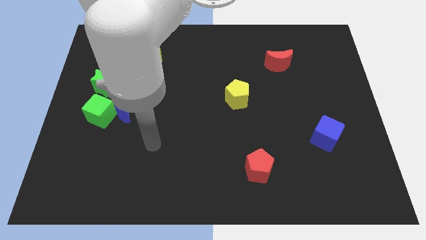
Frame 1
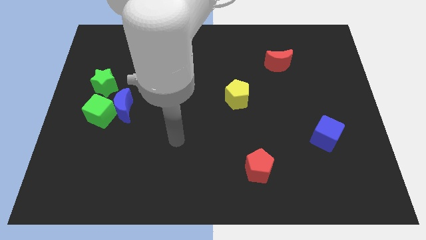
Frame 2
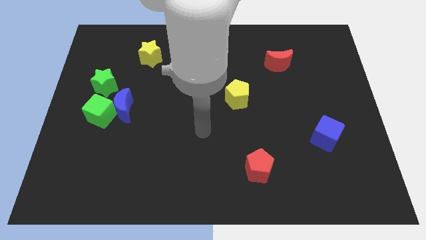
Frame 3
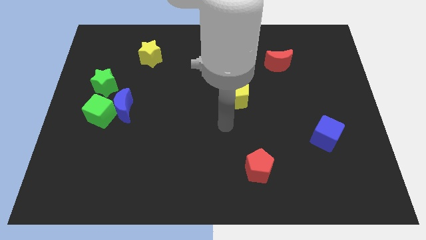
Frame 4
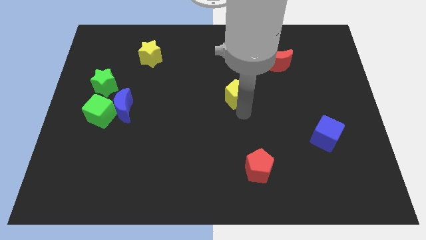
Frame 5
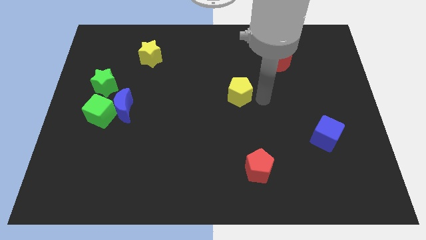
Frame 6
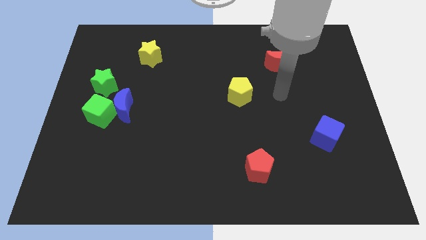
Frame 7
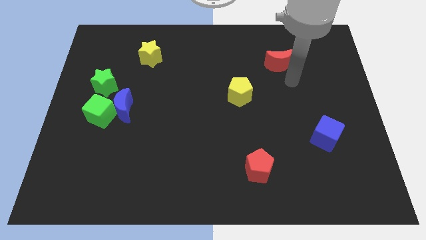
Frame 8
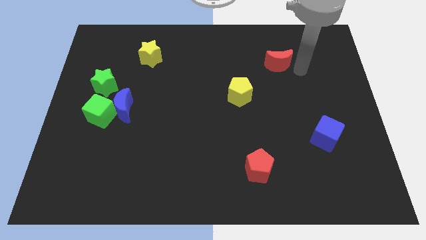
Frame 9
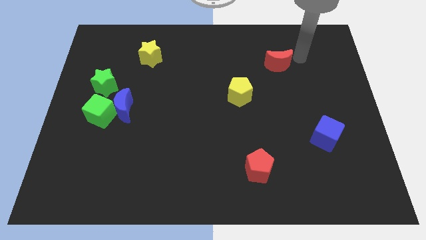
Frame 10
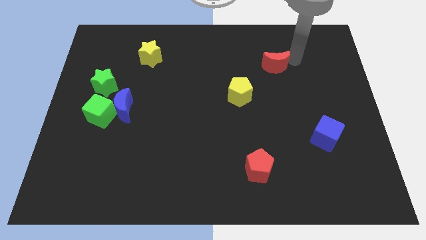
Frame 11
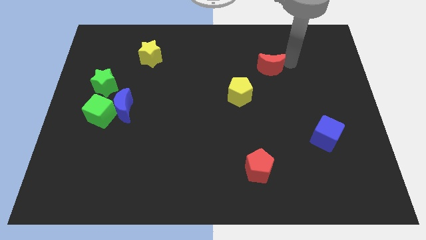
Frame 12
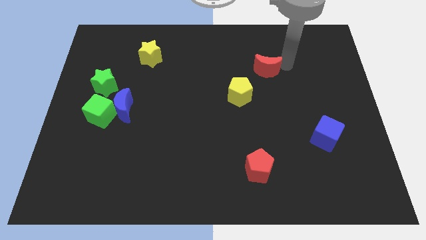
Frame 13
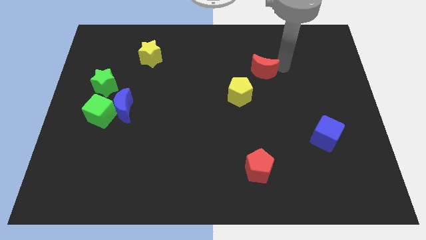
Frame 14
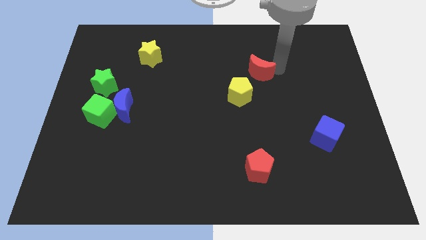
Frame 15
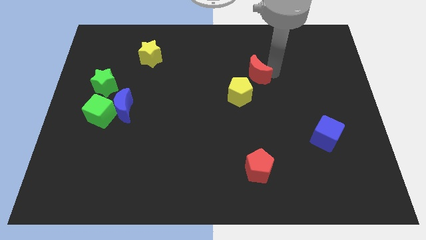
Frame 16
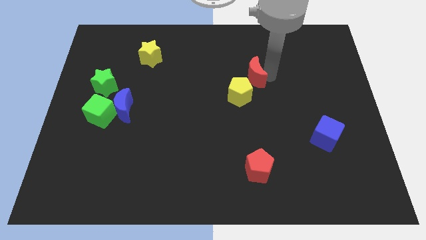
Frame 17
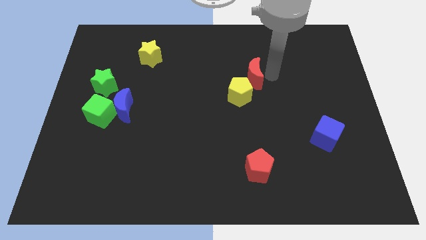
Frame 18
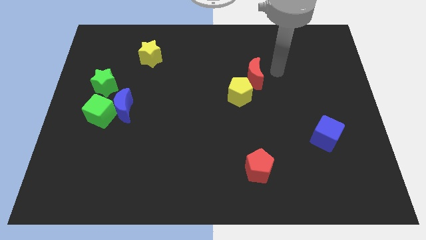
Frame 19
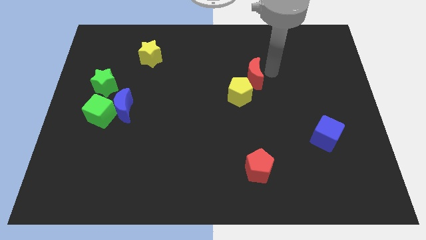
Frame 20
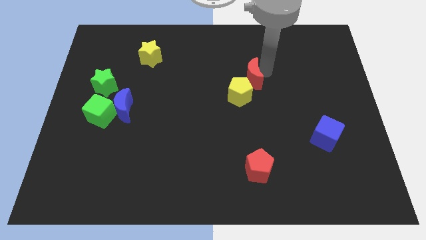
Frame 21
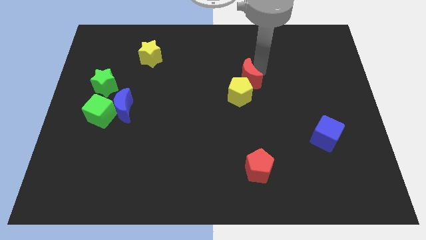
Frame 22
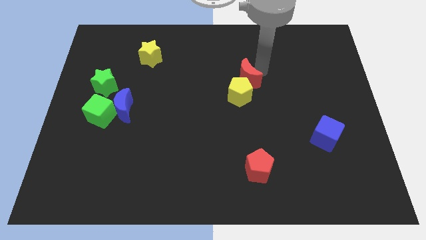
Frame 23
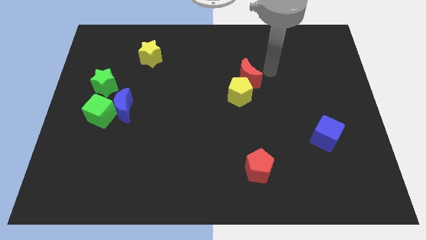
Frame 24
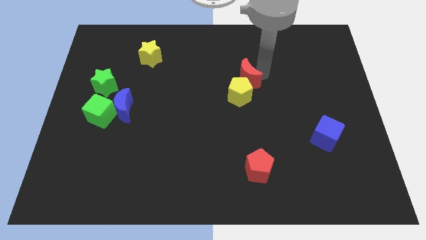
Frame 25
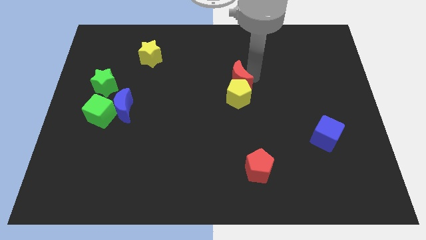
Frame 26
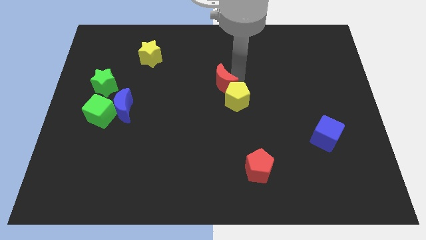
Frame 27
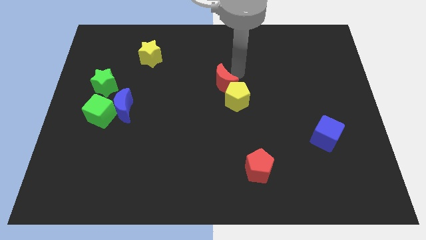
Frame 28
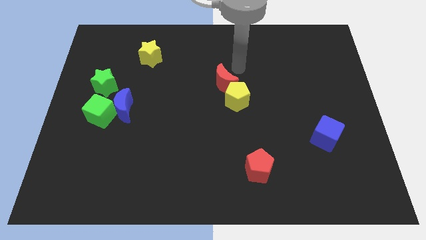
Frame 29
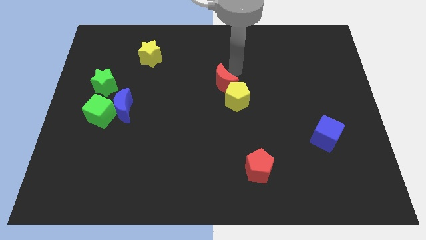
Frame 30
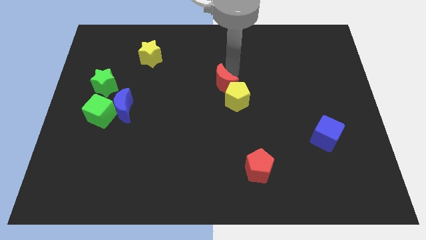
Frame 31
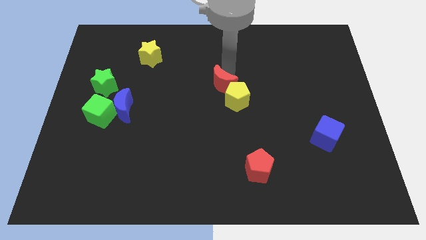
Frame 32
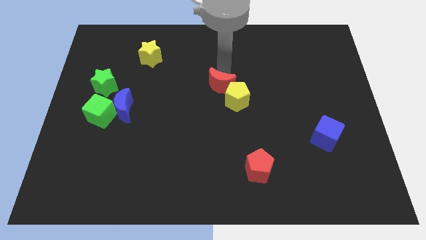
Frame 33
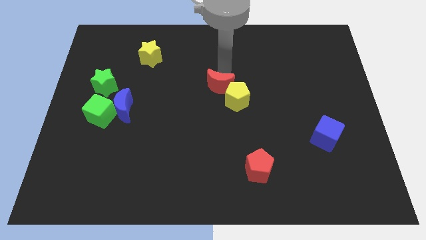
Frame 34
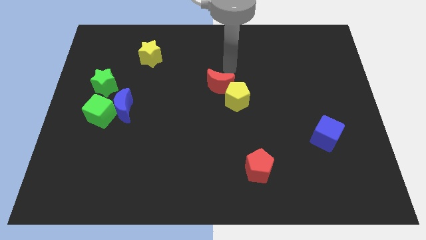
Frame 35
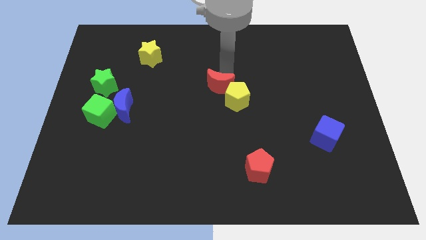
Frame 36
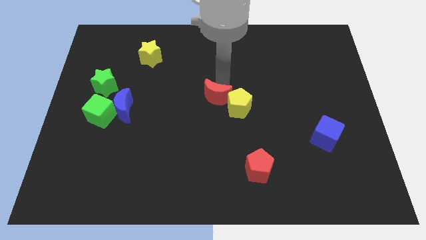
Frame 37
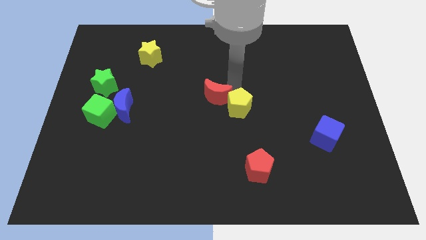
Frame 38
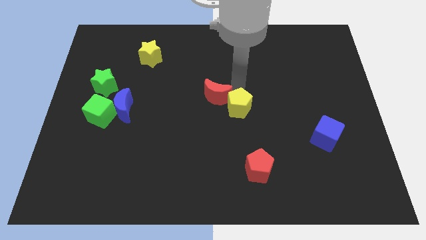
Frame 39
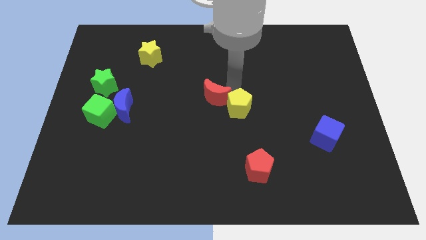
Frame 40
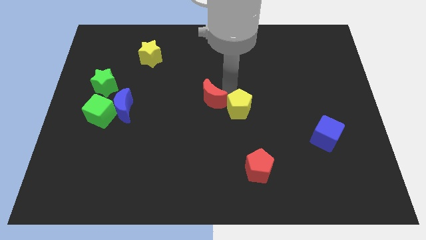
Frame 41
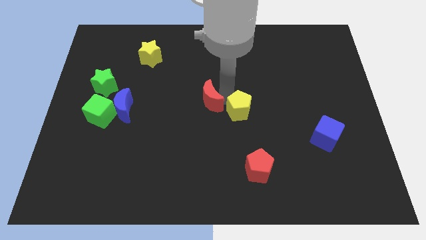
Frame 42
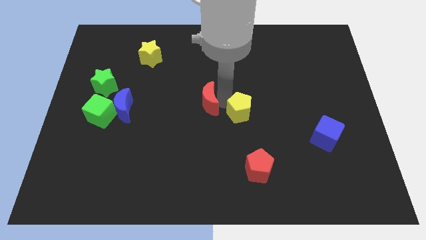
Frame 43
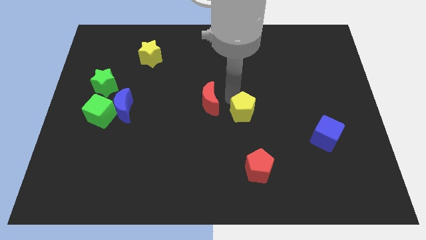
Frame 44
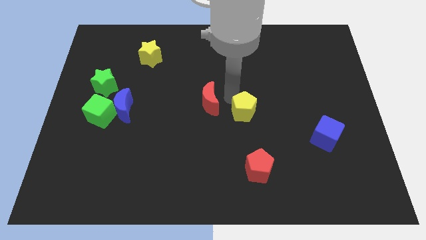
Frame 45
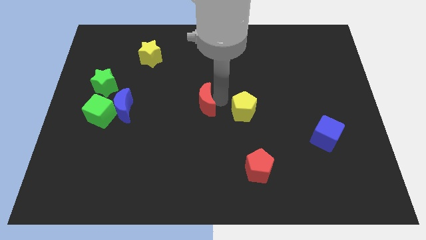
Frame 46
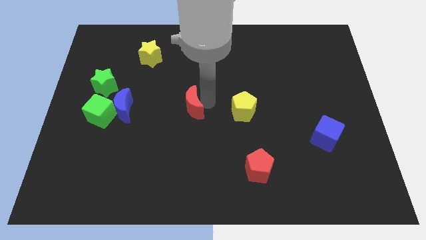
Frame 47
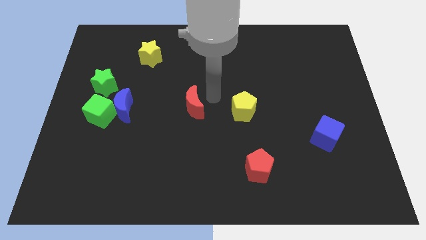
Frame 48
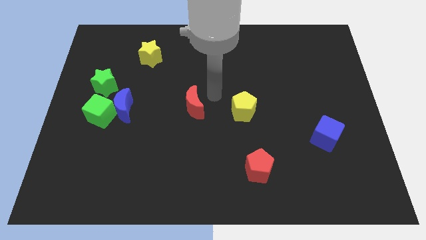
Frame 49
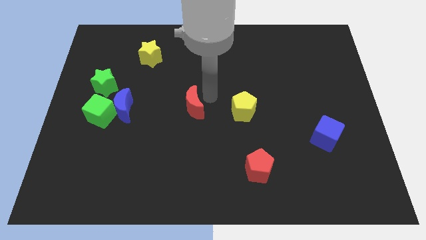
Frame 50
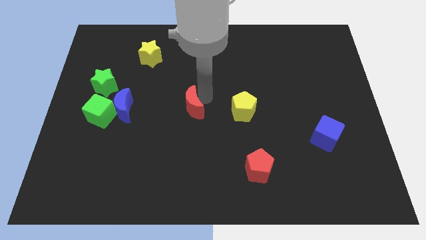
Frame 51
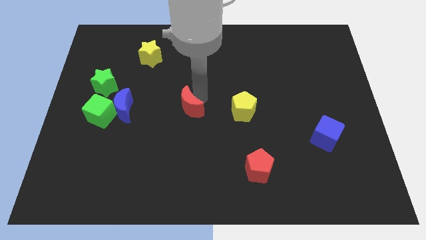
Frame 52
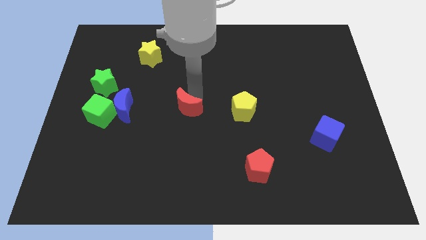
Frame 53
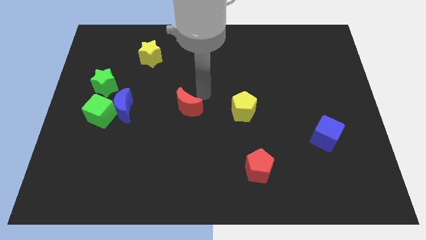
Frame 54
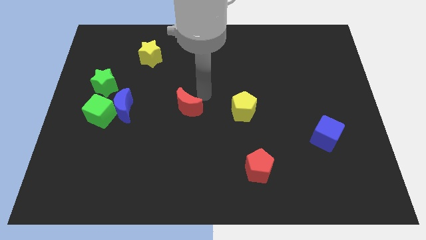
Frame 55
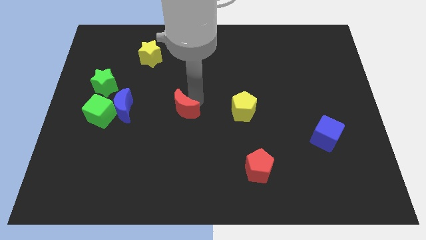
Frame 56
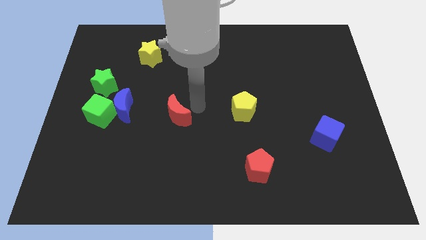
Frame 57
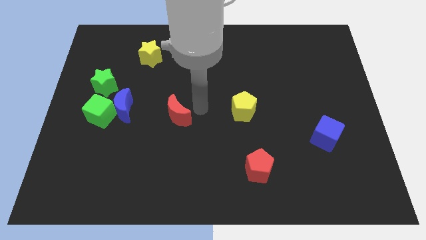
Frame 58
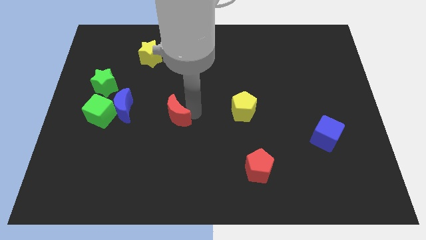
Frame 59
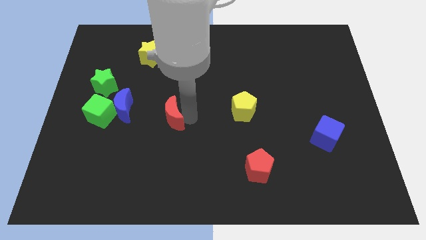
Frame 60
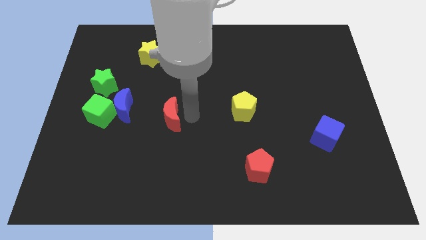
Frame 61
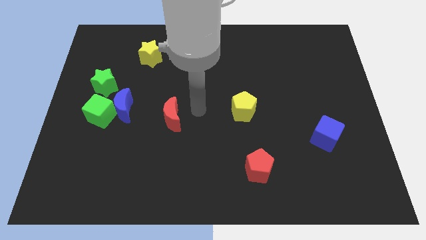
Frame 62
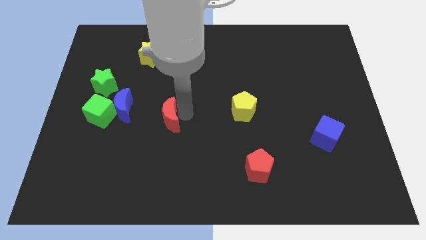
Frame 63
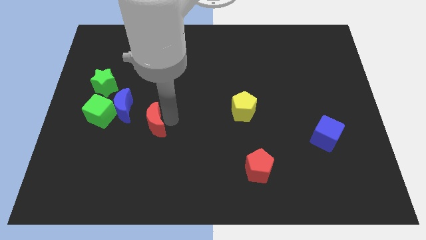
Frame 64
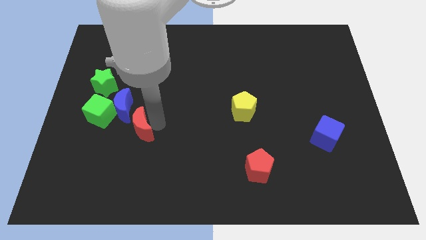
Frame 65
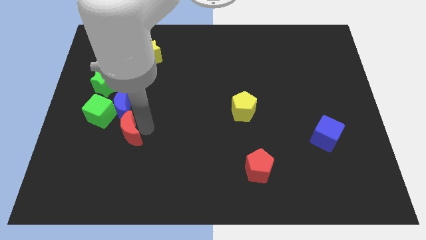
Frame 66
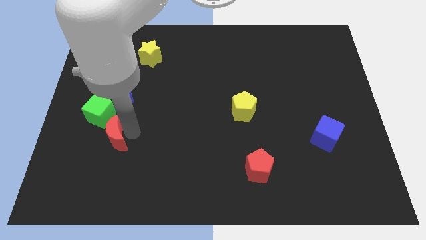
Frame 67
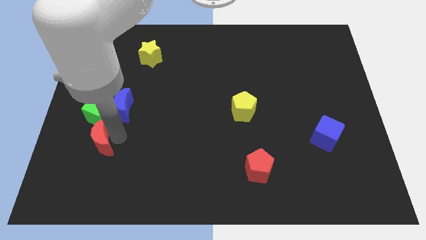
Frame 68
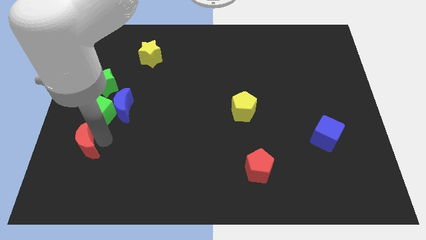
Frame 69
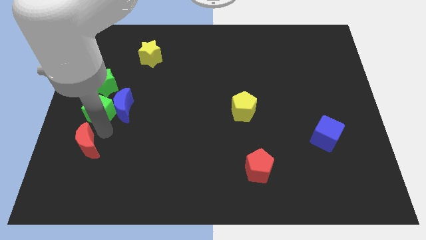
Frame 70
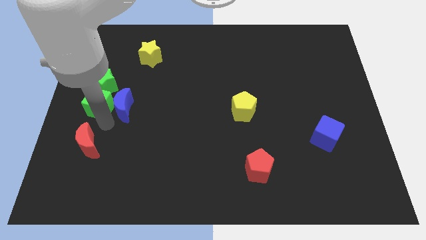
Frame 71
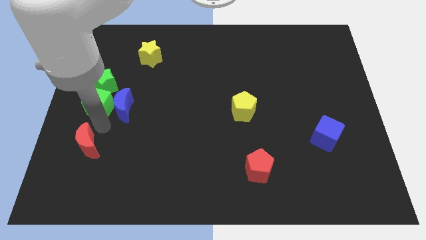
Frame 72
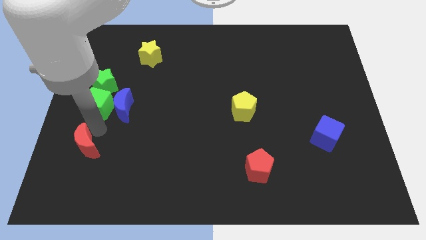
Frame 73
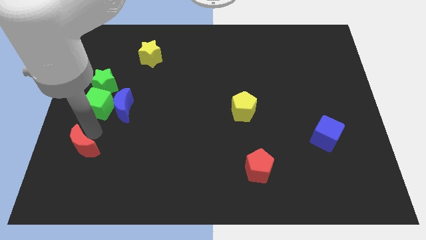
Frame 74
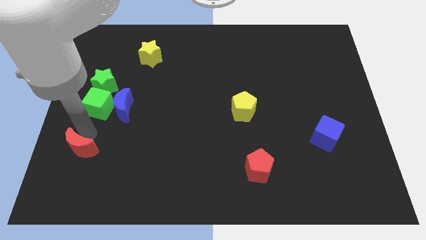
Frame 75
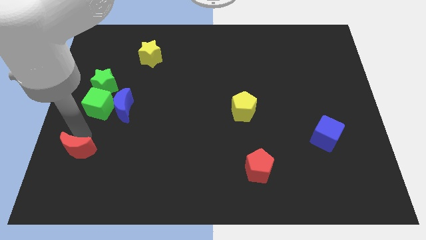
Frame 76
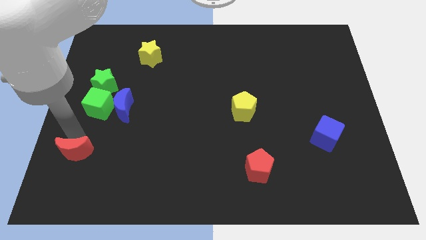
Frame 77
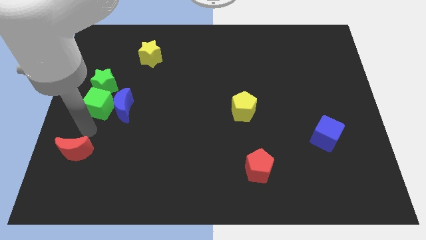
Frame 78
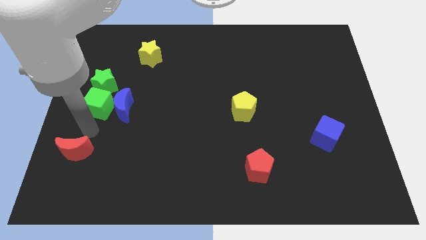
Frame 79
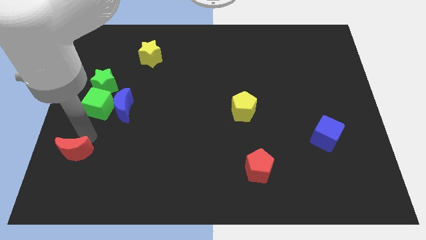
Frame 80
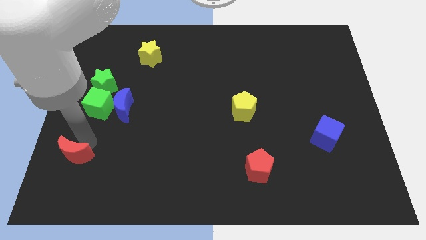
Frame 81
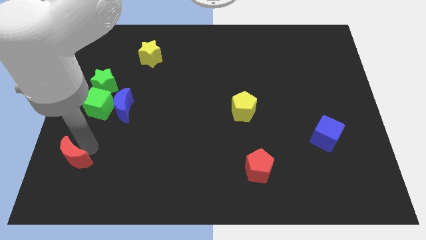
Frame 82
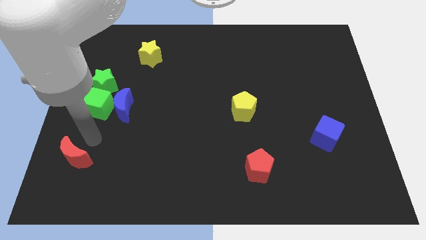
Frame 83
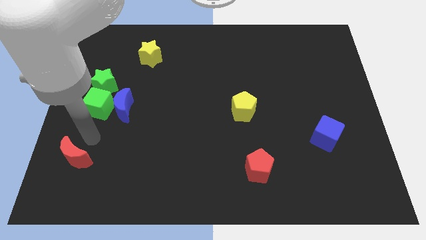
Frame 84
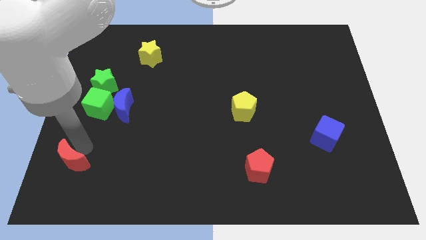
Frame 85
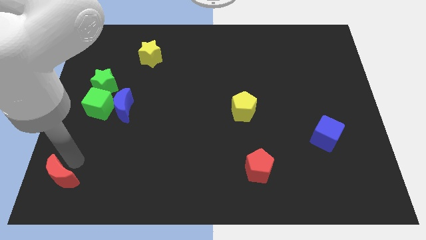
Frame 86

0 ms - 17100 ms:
put the red moon to the bottom left of the board
